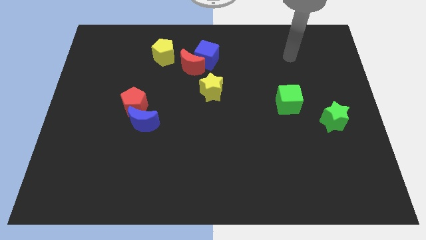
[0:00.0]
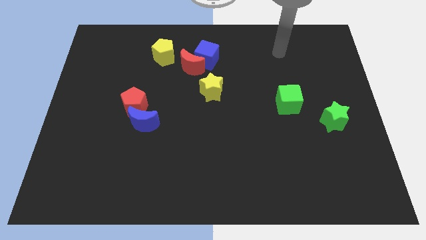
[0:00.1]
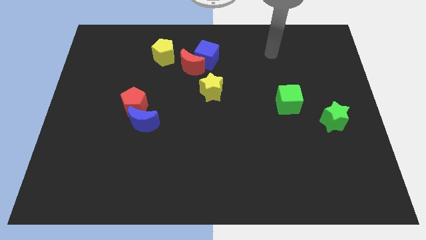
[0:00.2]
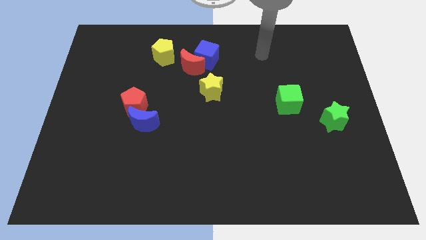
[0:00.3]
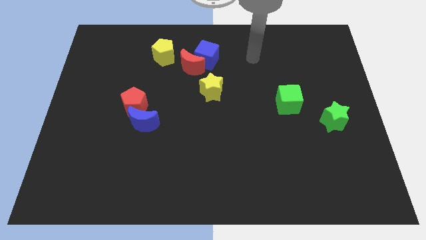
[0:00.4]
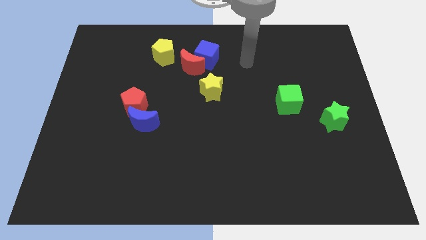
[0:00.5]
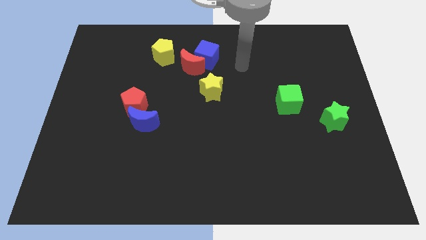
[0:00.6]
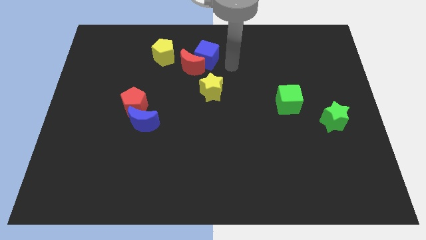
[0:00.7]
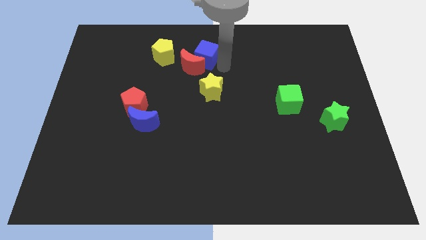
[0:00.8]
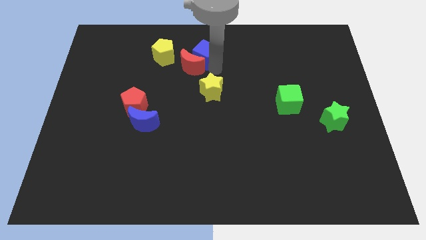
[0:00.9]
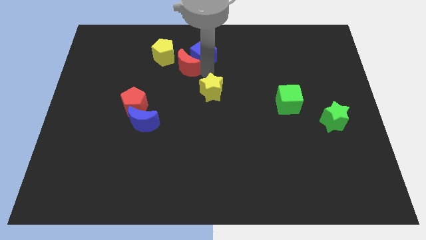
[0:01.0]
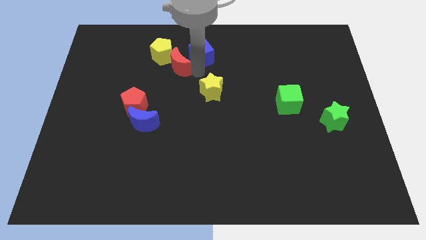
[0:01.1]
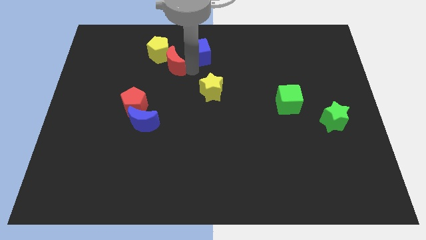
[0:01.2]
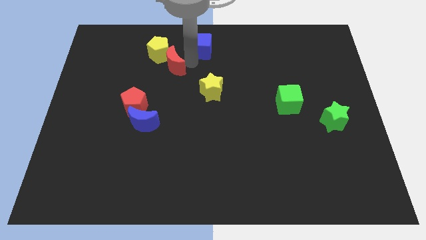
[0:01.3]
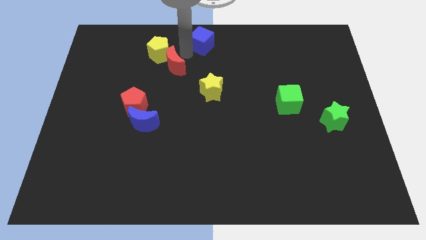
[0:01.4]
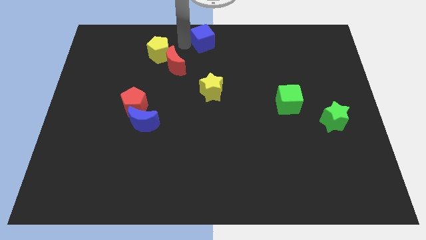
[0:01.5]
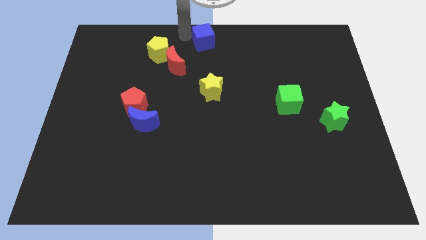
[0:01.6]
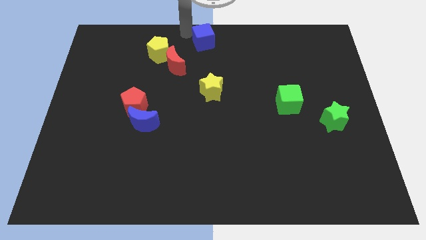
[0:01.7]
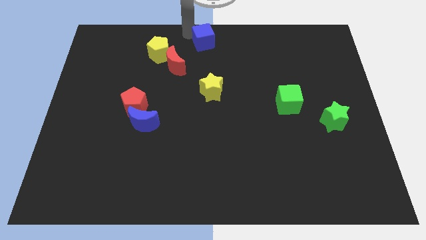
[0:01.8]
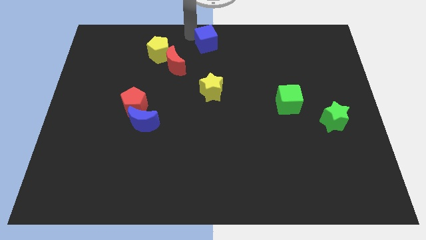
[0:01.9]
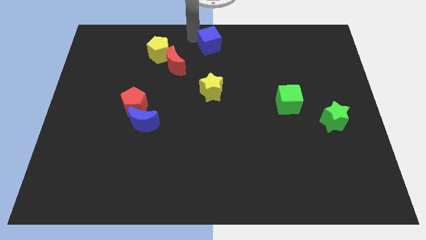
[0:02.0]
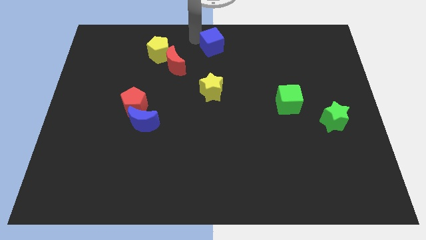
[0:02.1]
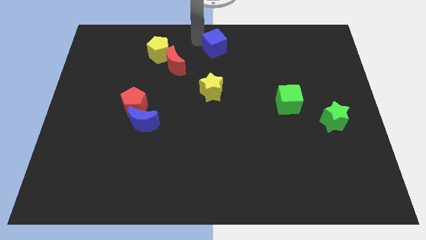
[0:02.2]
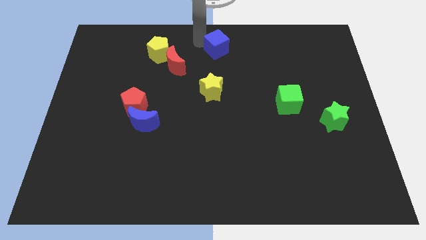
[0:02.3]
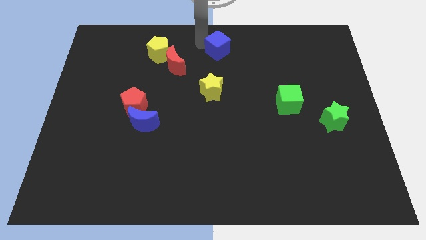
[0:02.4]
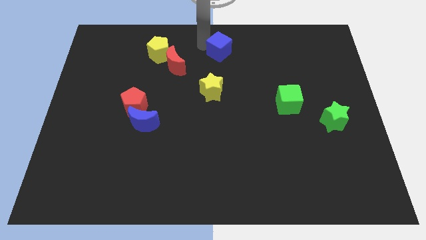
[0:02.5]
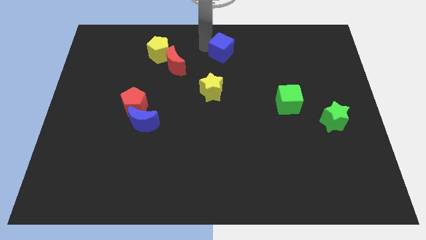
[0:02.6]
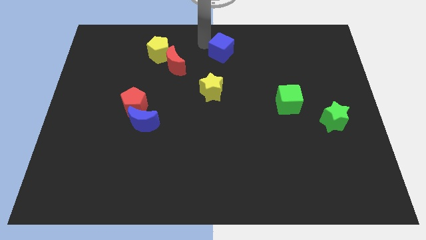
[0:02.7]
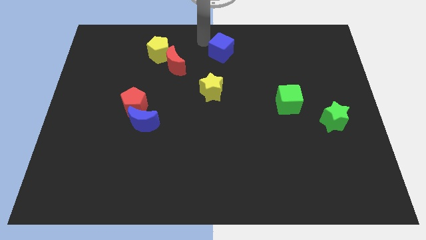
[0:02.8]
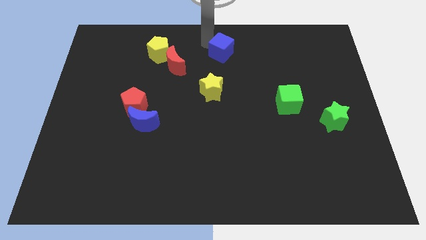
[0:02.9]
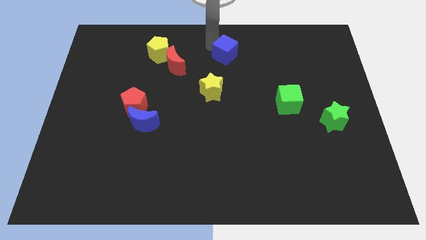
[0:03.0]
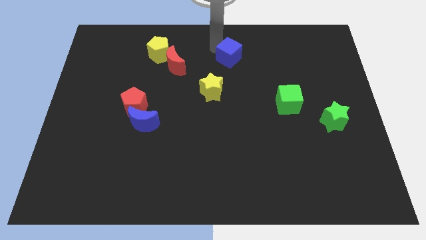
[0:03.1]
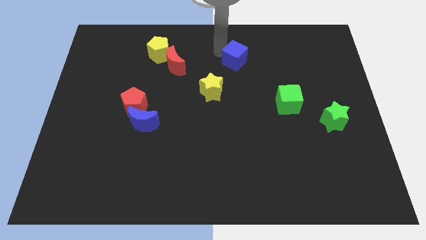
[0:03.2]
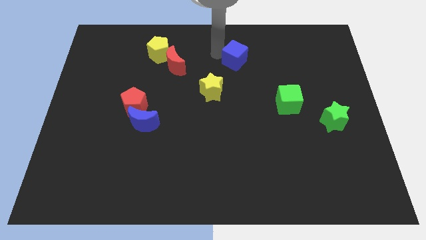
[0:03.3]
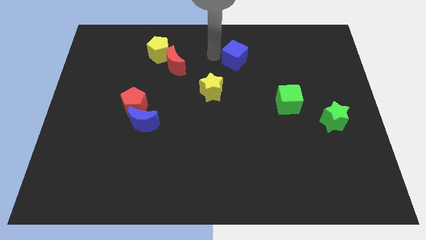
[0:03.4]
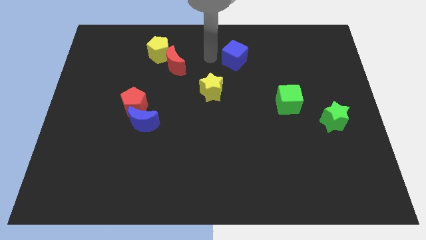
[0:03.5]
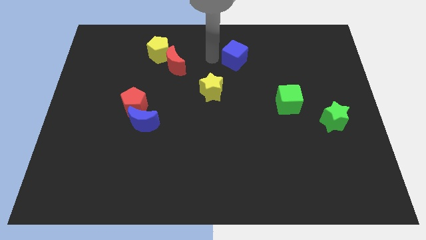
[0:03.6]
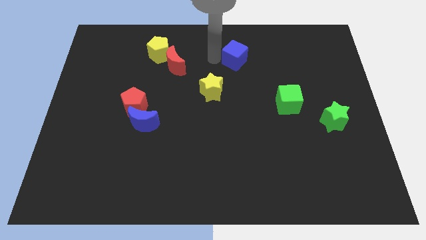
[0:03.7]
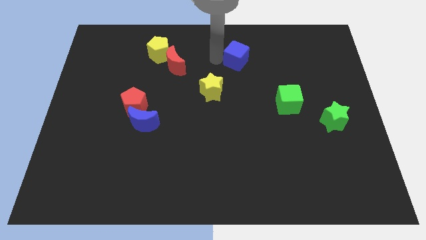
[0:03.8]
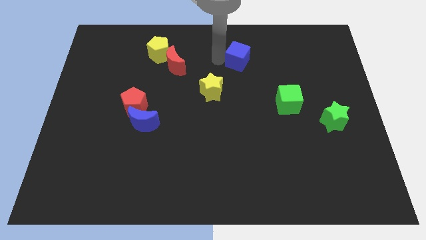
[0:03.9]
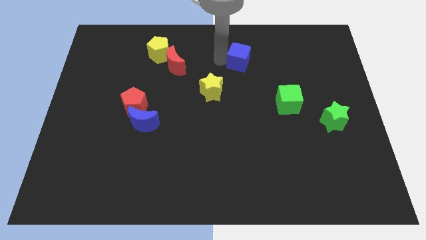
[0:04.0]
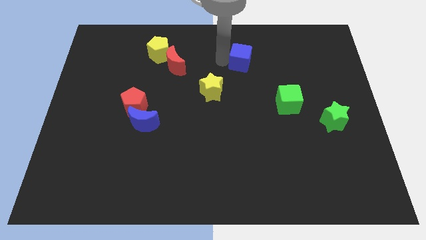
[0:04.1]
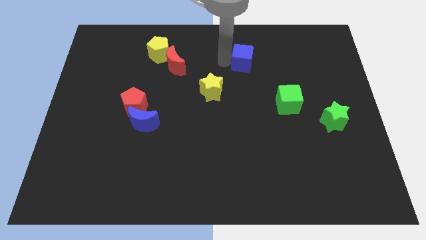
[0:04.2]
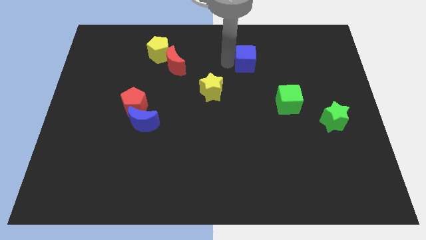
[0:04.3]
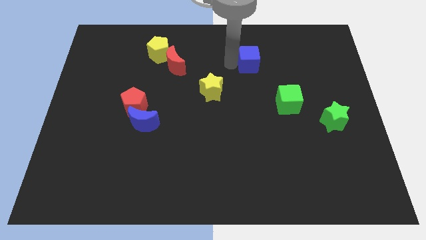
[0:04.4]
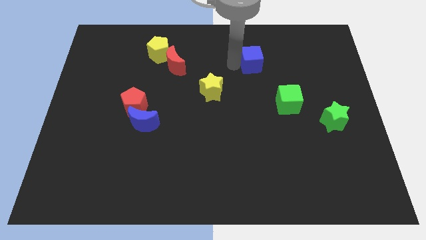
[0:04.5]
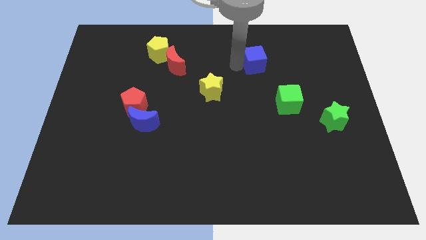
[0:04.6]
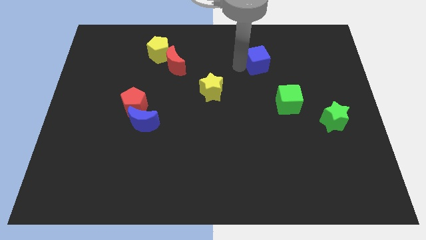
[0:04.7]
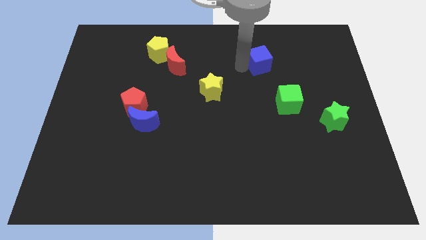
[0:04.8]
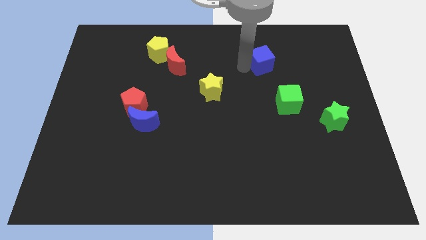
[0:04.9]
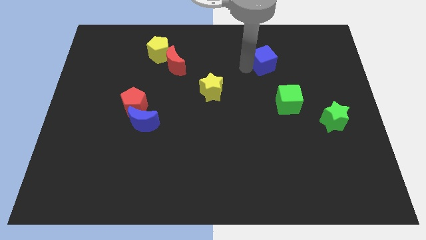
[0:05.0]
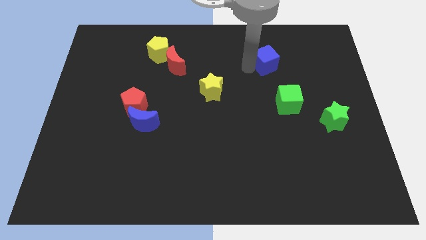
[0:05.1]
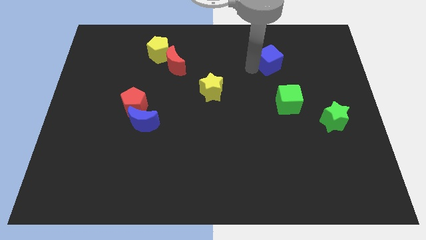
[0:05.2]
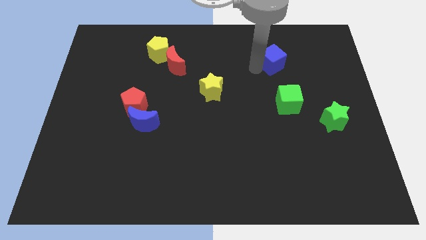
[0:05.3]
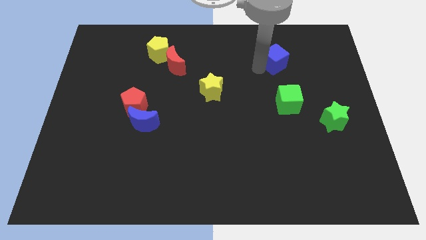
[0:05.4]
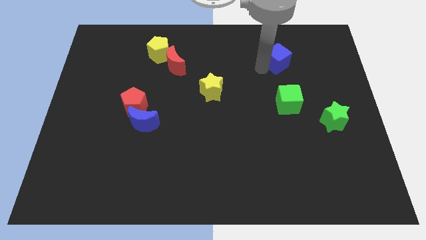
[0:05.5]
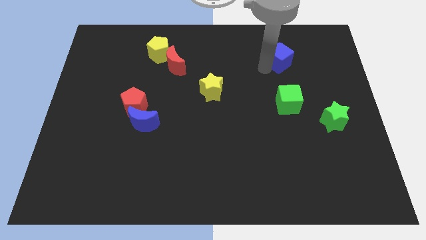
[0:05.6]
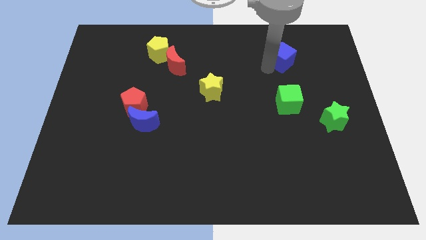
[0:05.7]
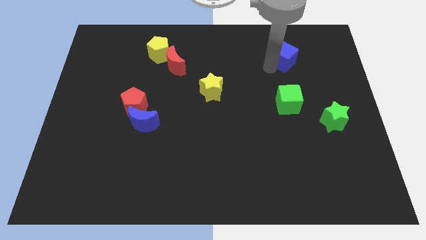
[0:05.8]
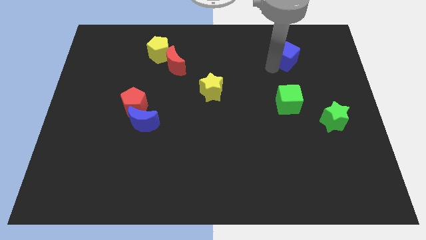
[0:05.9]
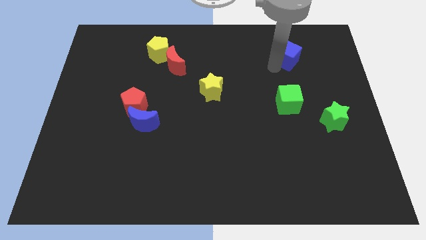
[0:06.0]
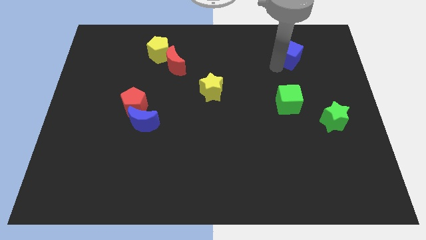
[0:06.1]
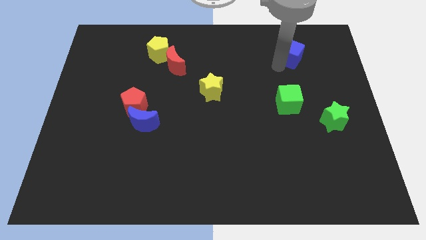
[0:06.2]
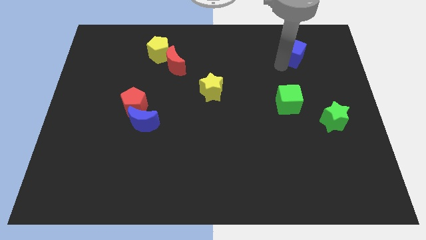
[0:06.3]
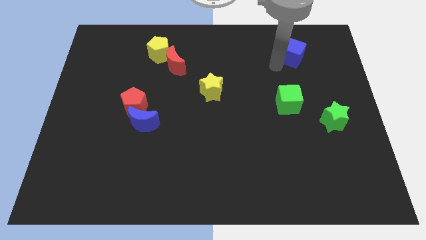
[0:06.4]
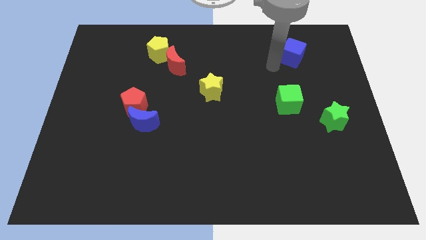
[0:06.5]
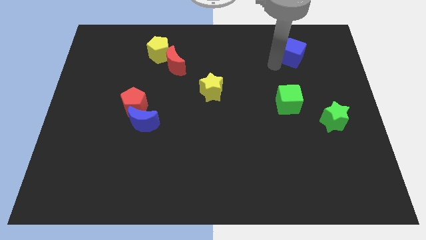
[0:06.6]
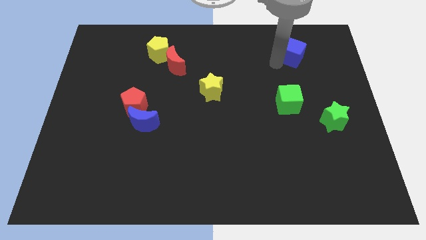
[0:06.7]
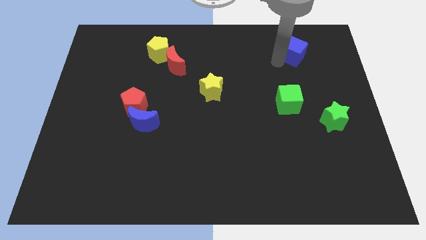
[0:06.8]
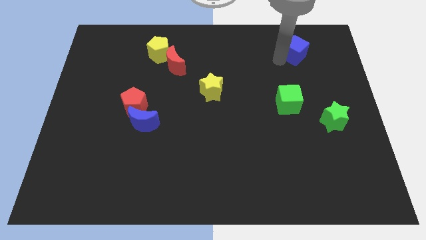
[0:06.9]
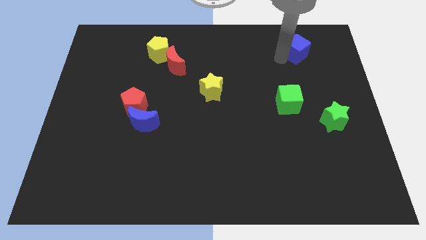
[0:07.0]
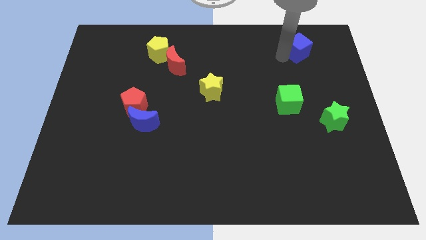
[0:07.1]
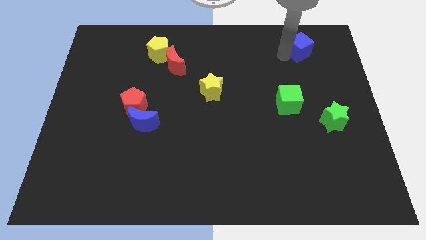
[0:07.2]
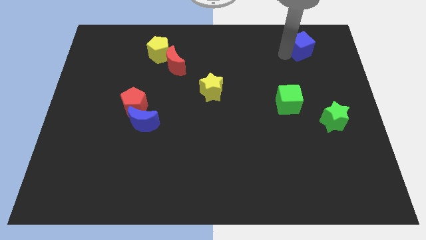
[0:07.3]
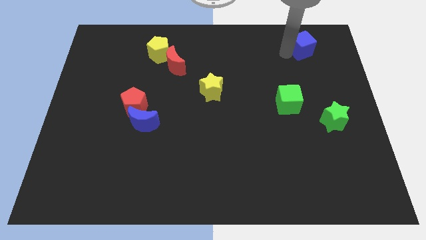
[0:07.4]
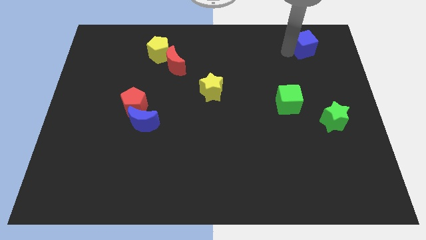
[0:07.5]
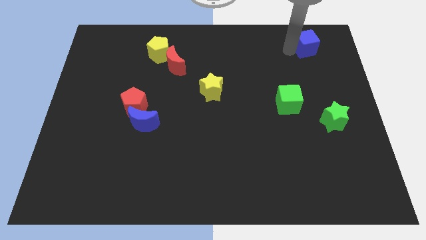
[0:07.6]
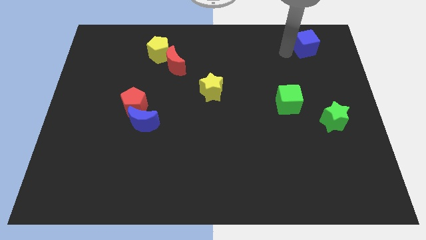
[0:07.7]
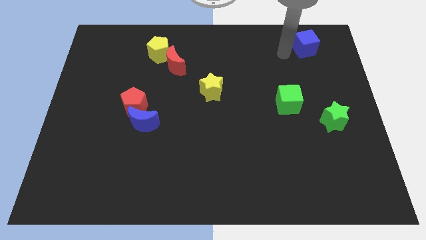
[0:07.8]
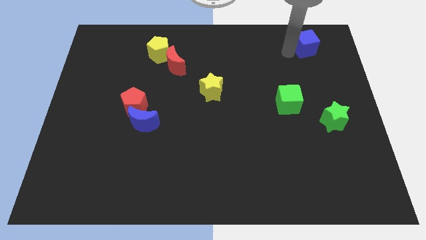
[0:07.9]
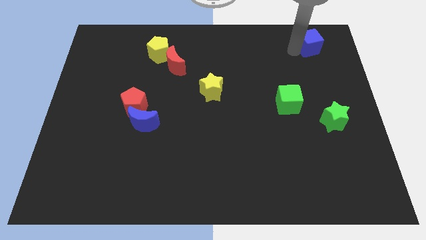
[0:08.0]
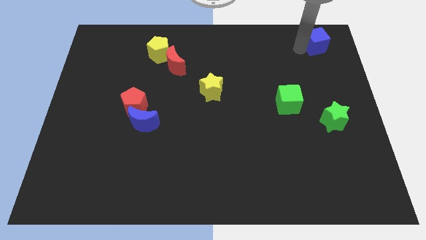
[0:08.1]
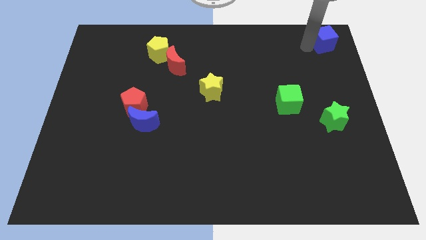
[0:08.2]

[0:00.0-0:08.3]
slide the blue cube to the top right corner
